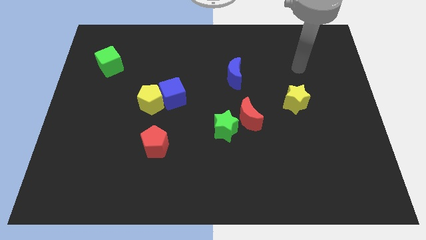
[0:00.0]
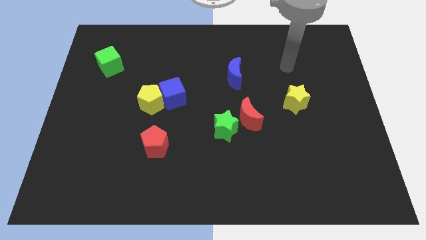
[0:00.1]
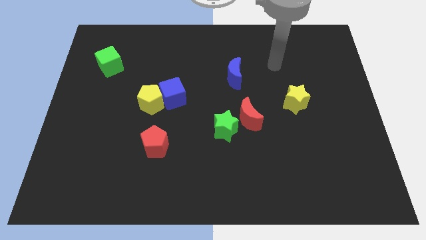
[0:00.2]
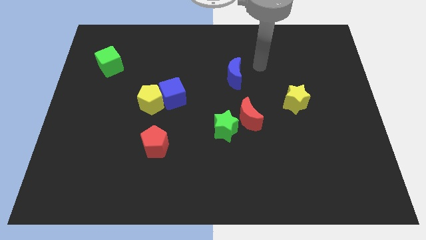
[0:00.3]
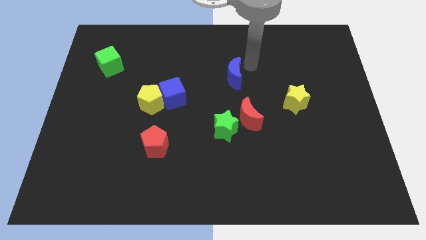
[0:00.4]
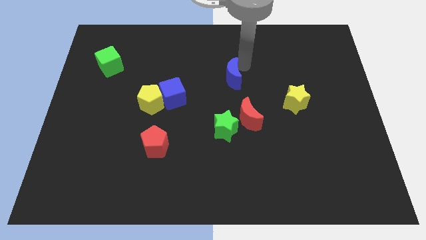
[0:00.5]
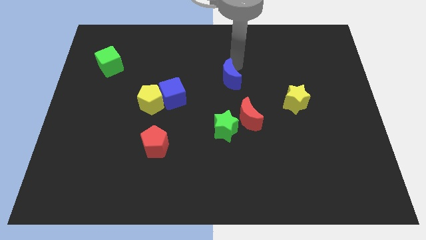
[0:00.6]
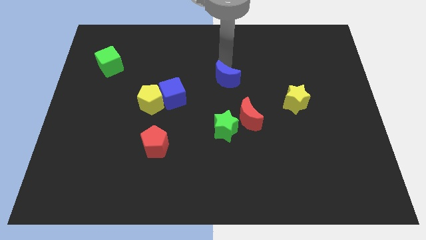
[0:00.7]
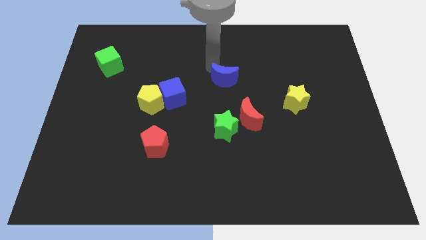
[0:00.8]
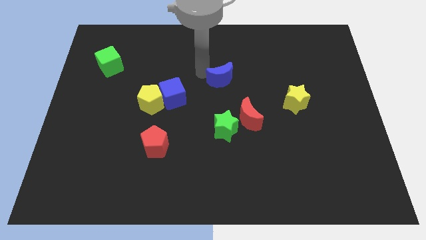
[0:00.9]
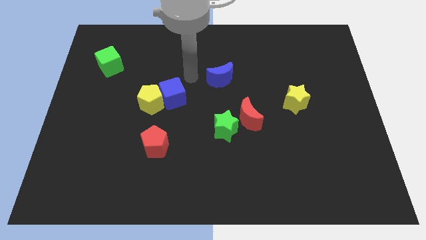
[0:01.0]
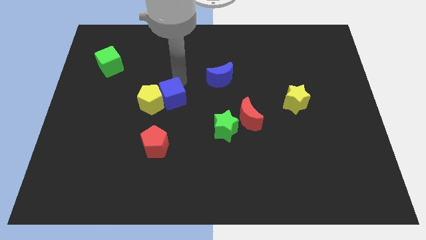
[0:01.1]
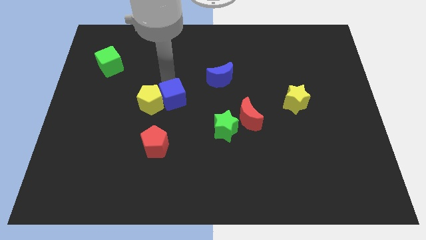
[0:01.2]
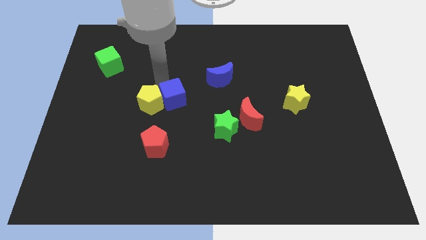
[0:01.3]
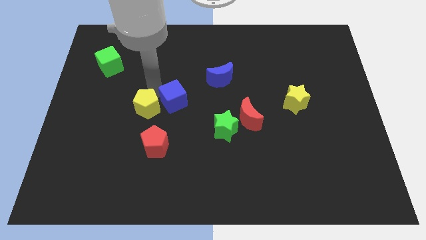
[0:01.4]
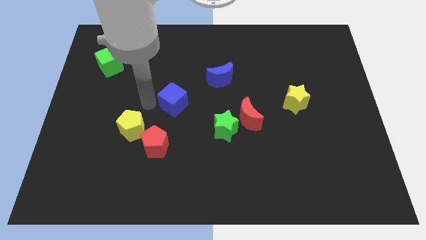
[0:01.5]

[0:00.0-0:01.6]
pull the blue cube apart from the yellow pentagon

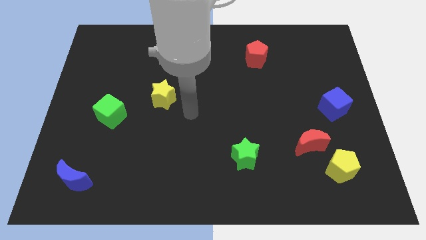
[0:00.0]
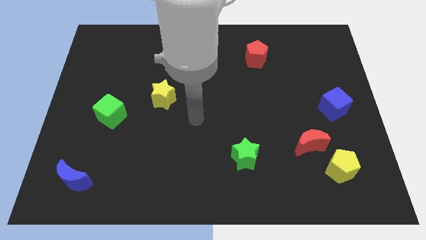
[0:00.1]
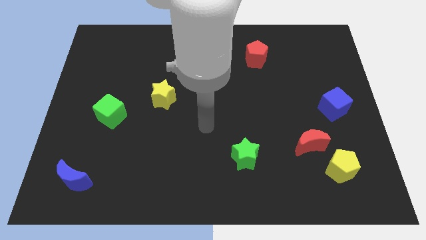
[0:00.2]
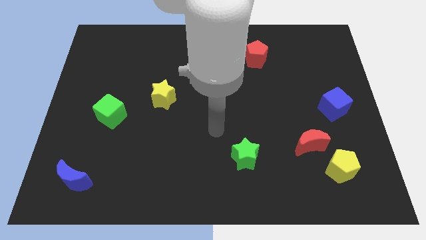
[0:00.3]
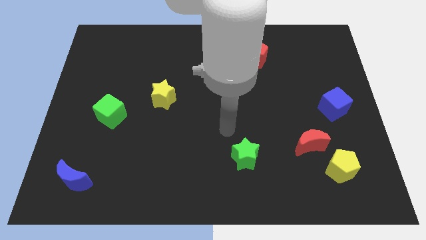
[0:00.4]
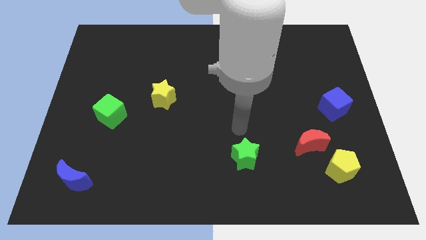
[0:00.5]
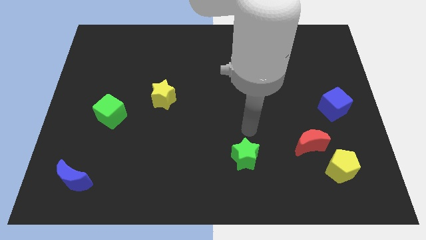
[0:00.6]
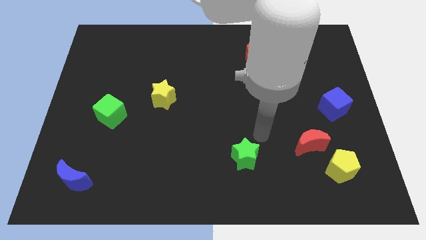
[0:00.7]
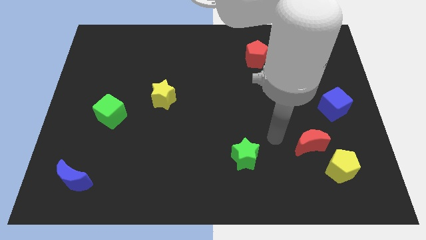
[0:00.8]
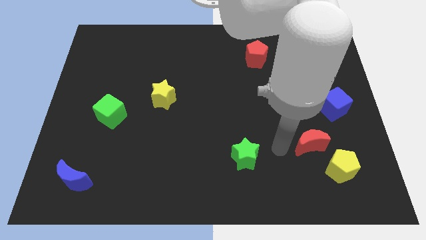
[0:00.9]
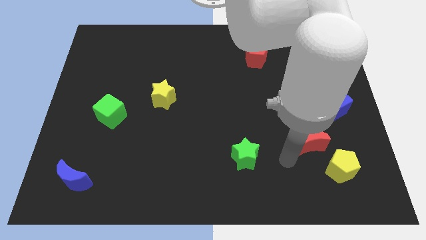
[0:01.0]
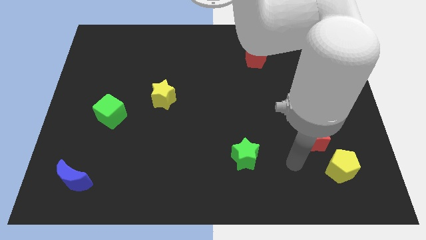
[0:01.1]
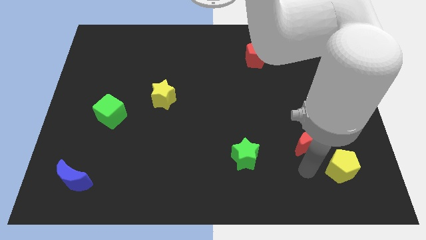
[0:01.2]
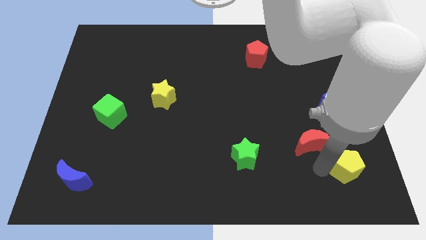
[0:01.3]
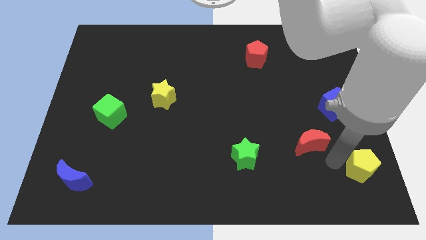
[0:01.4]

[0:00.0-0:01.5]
pull the red moon apart from the yellow pentagon

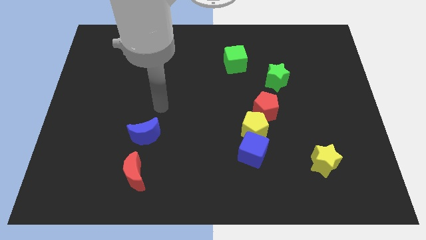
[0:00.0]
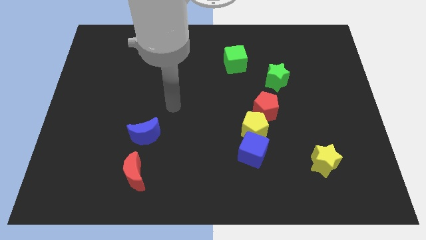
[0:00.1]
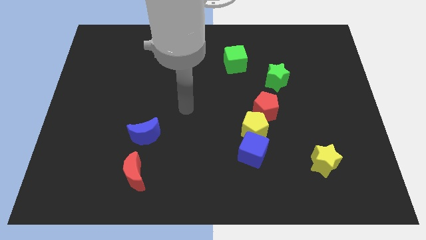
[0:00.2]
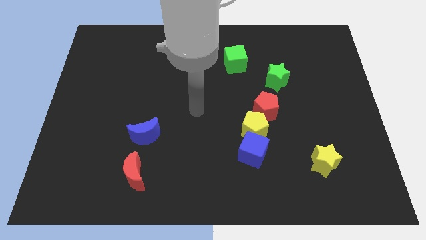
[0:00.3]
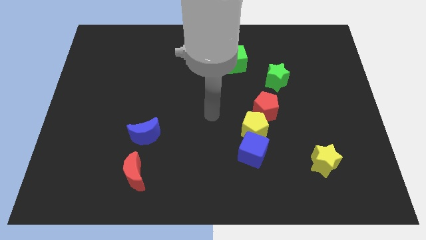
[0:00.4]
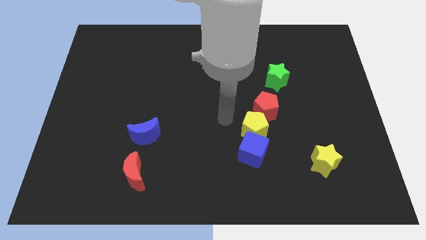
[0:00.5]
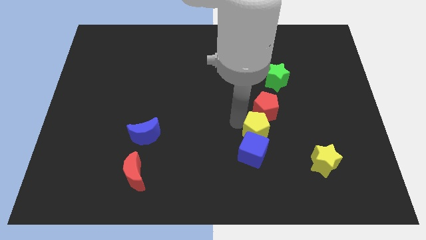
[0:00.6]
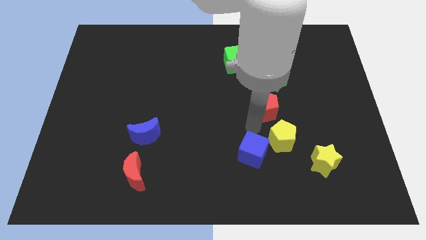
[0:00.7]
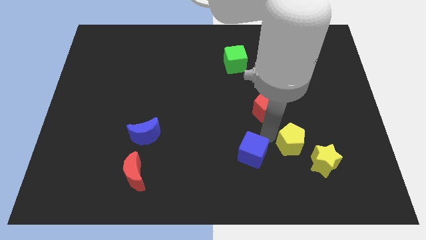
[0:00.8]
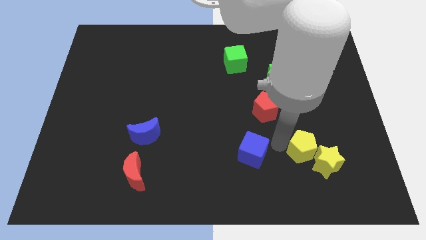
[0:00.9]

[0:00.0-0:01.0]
separate the blue cube from the yellow pentagon

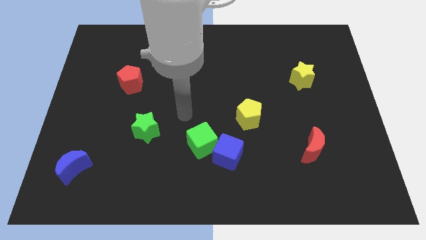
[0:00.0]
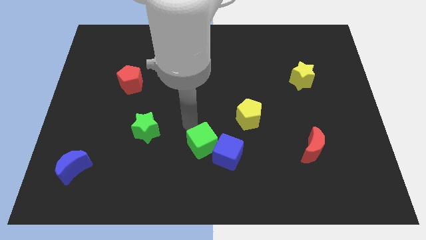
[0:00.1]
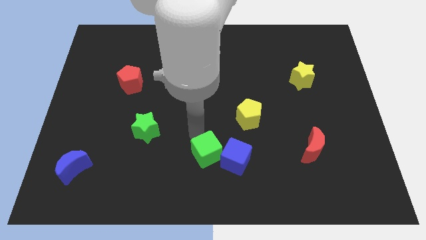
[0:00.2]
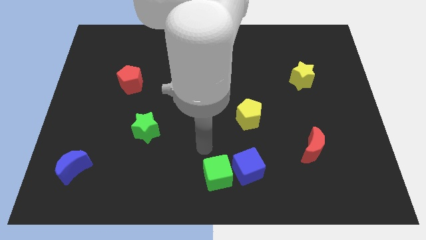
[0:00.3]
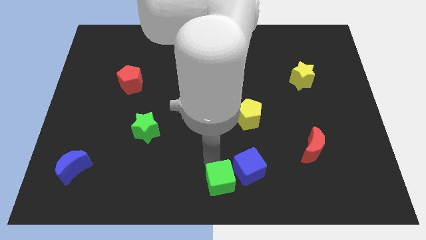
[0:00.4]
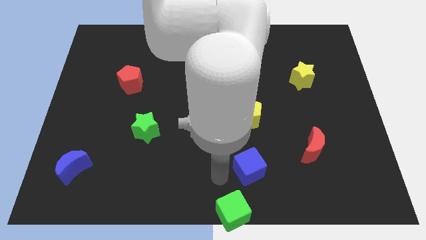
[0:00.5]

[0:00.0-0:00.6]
pull the blue cube apart from the green cube

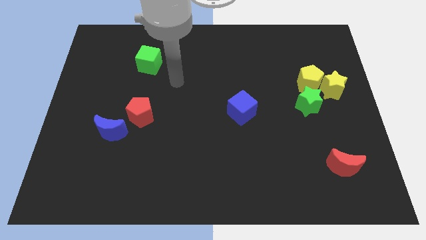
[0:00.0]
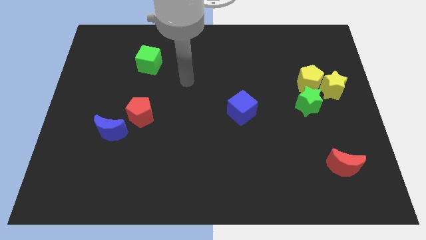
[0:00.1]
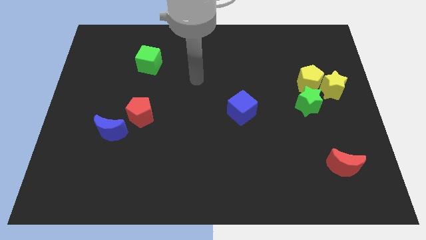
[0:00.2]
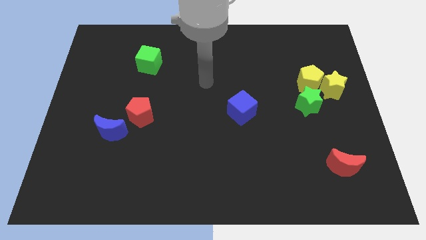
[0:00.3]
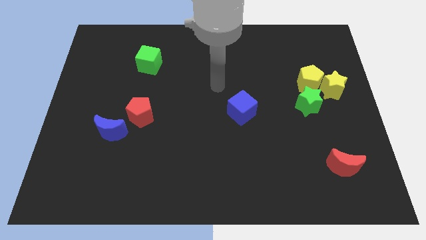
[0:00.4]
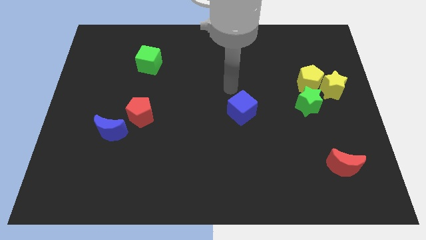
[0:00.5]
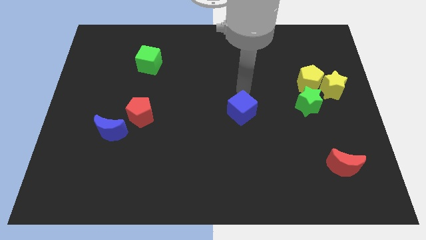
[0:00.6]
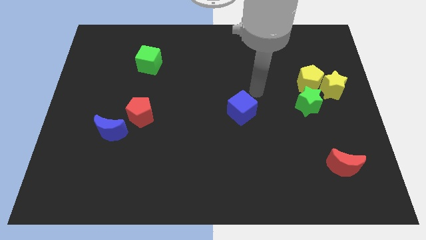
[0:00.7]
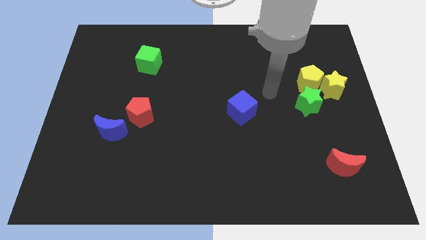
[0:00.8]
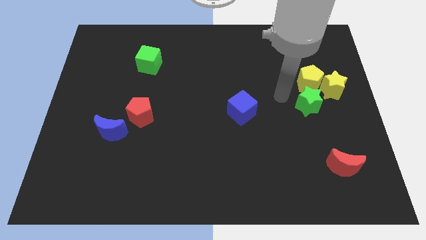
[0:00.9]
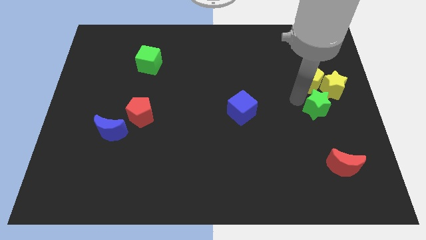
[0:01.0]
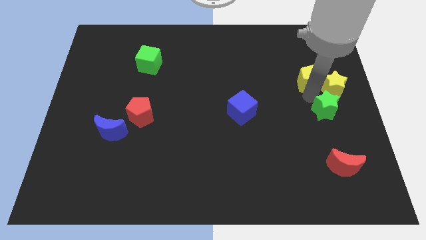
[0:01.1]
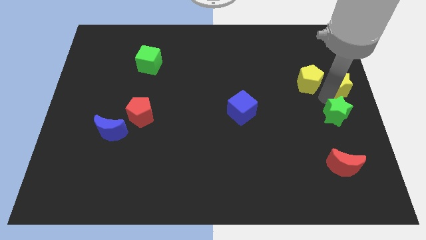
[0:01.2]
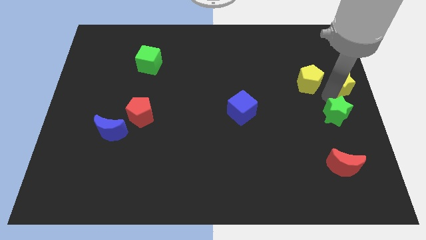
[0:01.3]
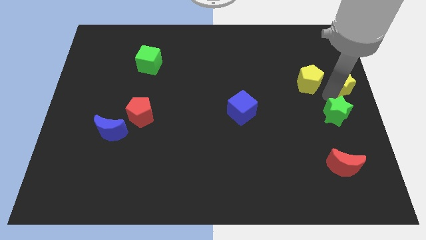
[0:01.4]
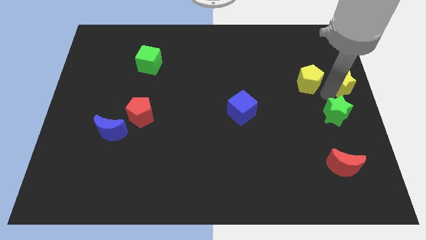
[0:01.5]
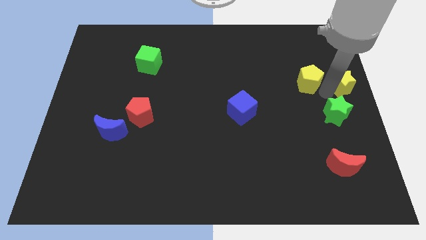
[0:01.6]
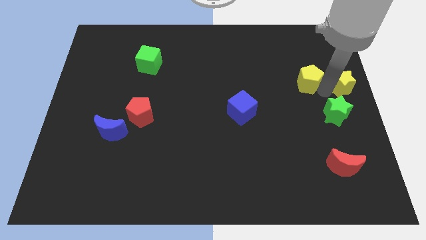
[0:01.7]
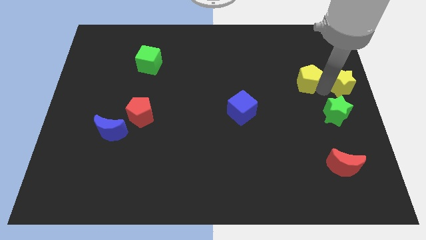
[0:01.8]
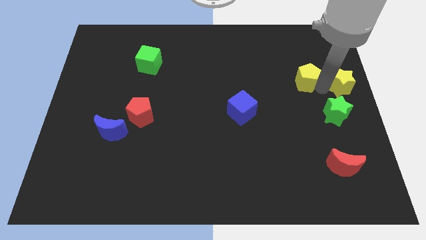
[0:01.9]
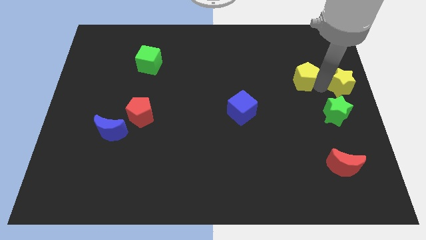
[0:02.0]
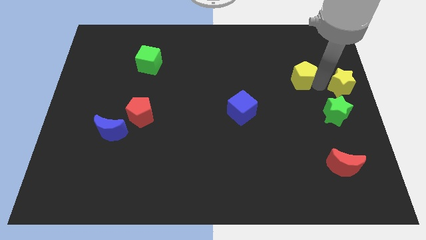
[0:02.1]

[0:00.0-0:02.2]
separate the yellow pentagon from the yellow star and green star

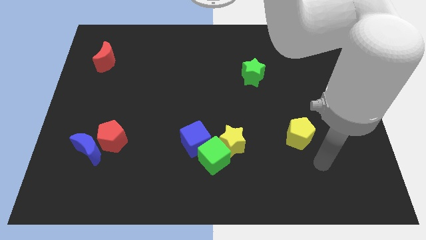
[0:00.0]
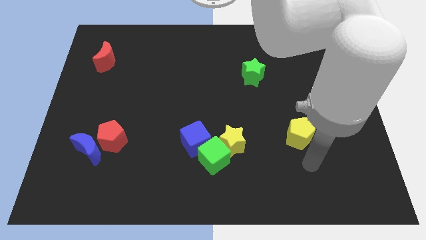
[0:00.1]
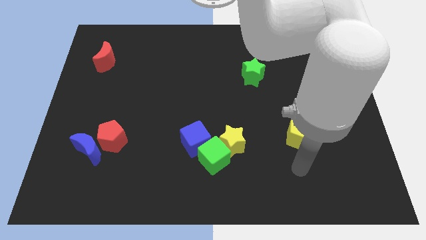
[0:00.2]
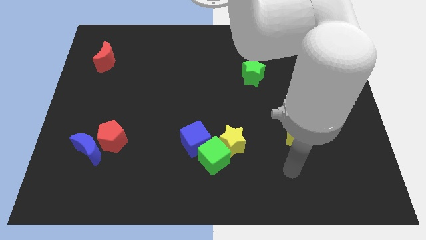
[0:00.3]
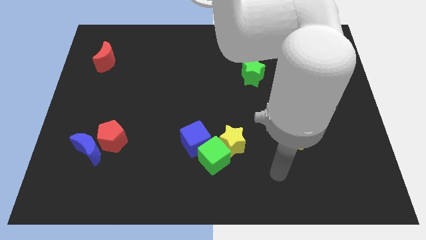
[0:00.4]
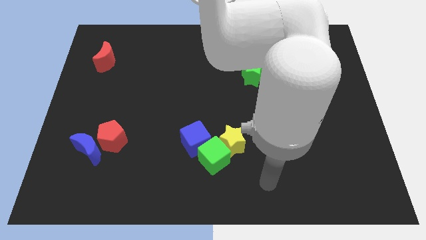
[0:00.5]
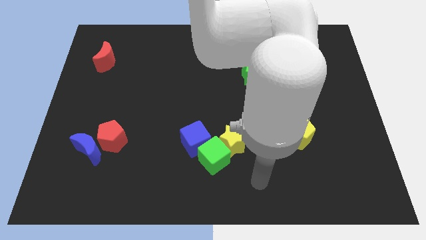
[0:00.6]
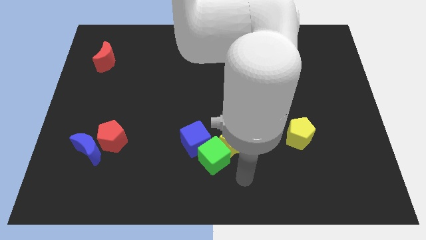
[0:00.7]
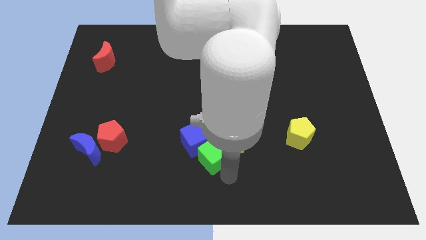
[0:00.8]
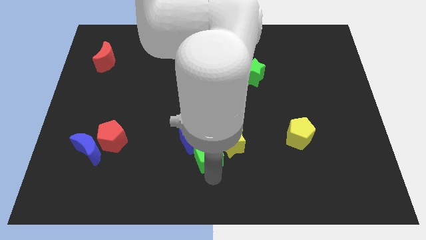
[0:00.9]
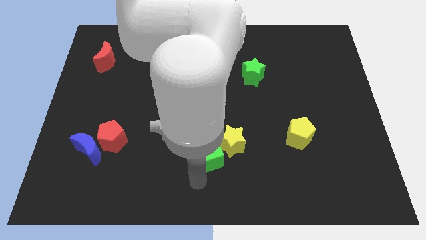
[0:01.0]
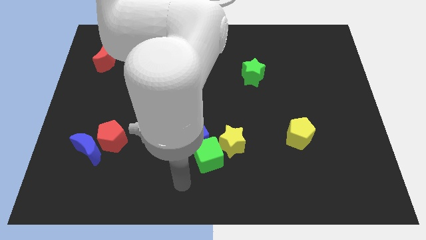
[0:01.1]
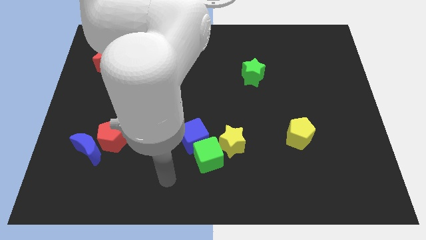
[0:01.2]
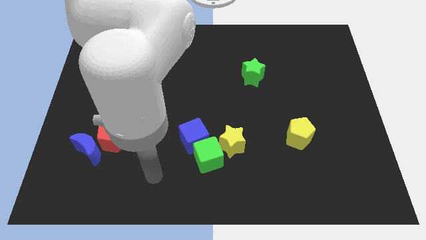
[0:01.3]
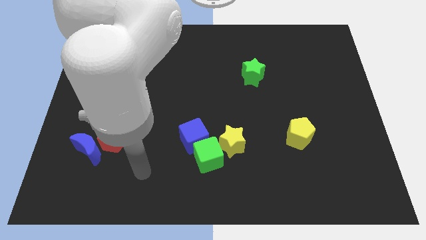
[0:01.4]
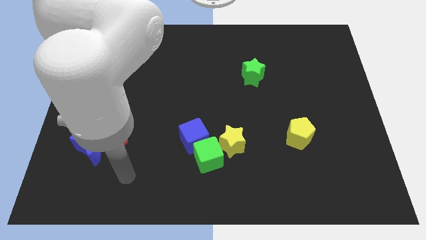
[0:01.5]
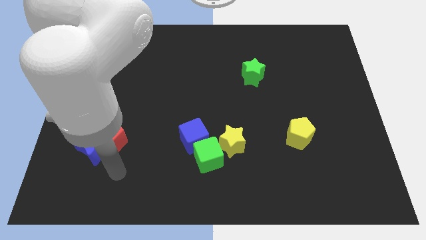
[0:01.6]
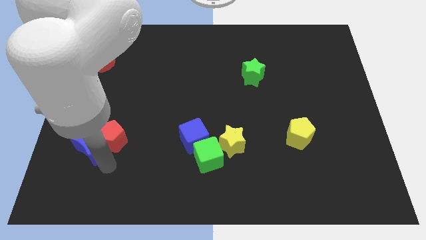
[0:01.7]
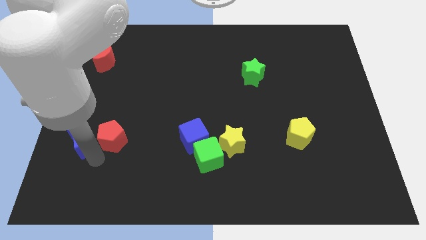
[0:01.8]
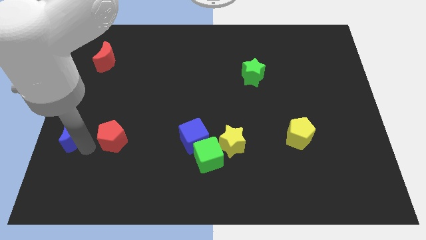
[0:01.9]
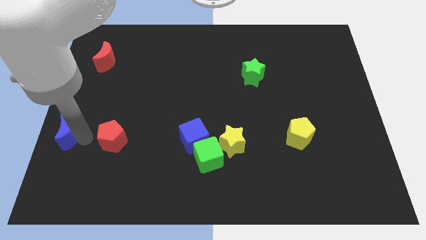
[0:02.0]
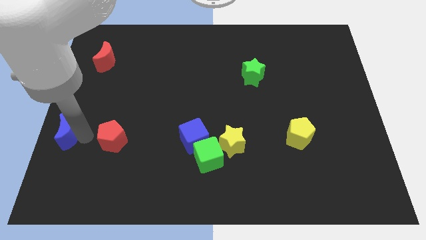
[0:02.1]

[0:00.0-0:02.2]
separate the red pentagon from the blue moon

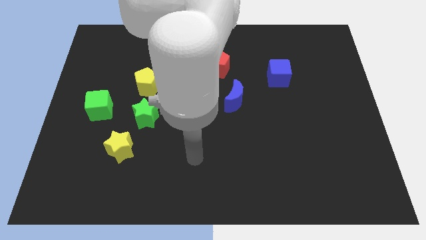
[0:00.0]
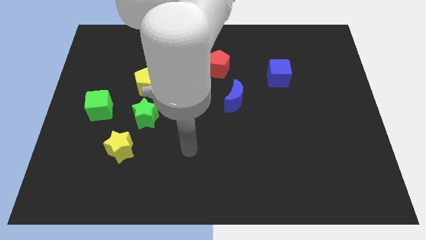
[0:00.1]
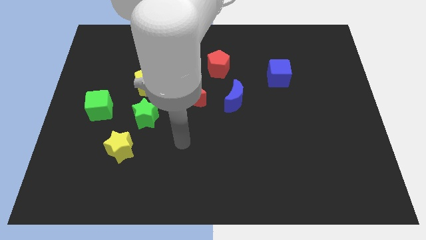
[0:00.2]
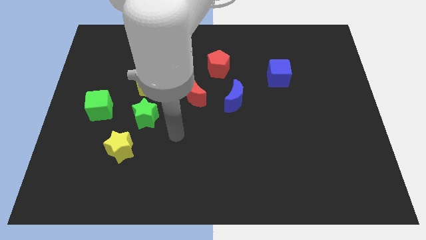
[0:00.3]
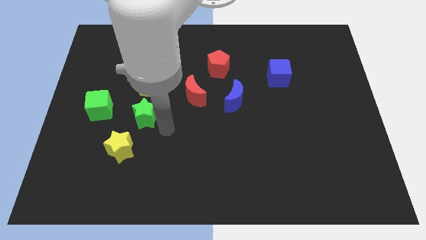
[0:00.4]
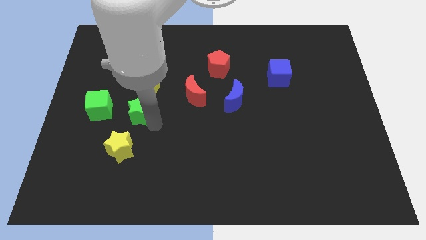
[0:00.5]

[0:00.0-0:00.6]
separate the yellow star from the green star
